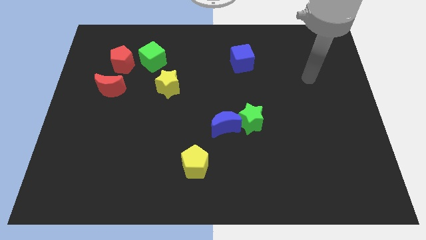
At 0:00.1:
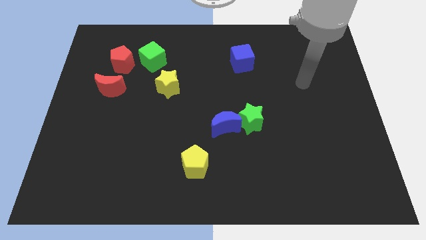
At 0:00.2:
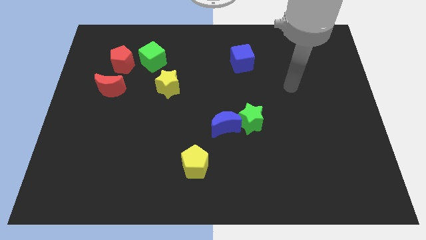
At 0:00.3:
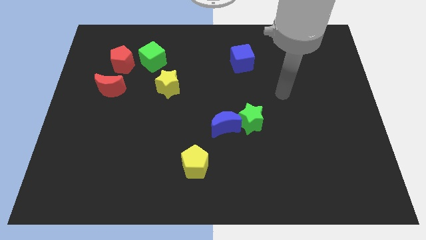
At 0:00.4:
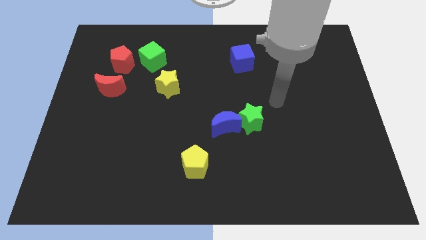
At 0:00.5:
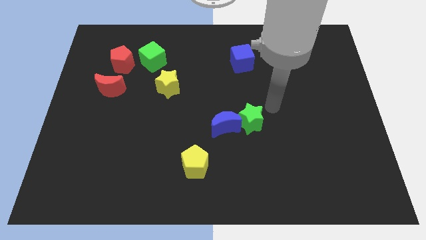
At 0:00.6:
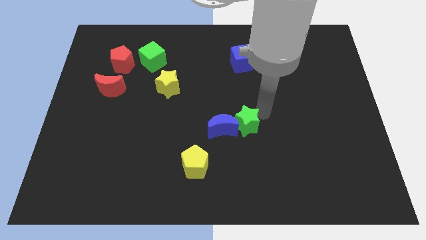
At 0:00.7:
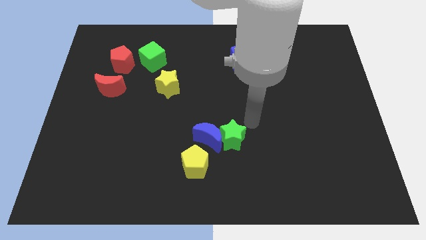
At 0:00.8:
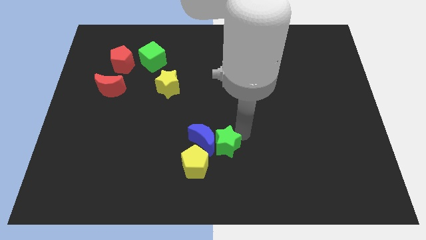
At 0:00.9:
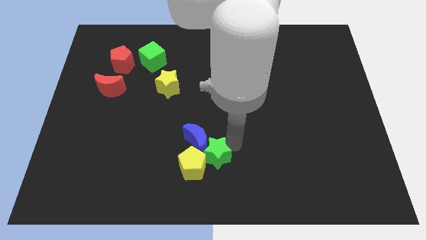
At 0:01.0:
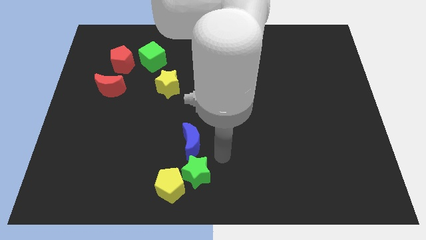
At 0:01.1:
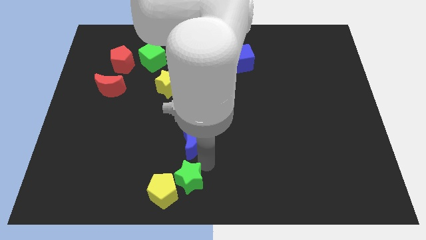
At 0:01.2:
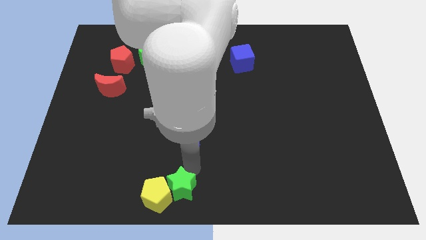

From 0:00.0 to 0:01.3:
separate the blue moon from the green star

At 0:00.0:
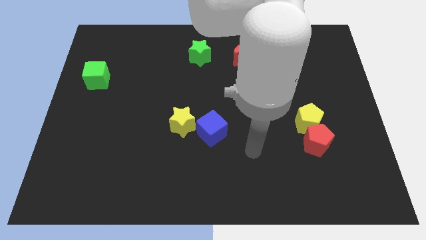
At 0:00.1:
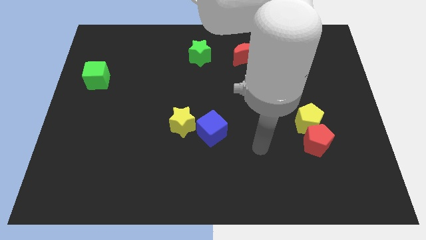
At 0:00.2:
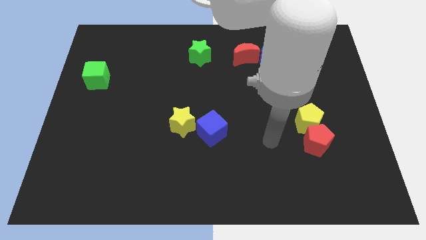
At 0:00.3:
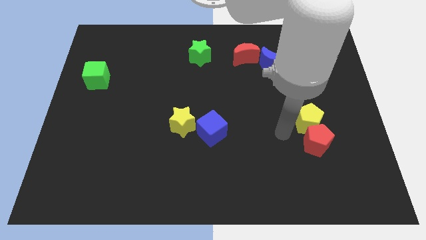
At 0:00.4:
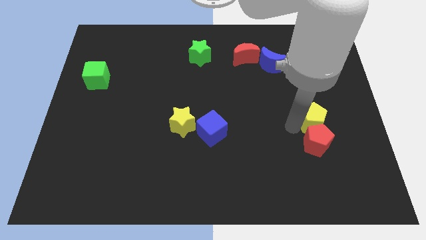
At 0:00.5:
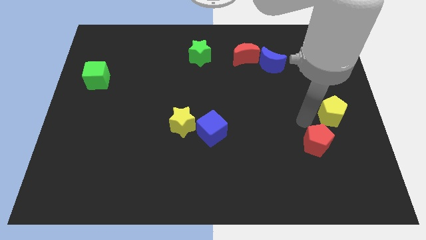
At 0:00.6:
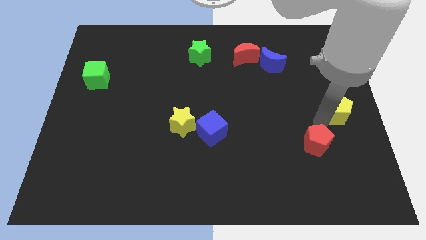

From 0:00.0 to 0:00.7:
move the red pentagon away from the yellow pentagon

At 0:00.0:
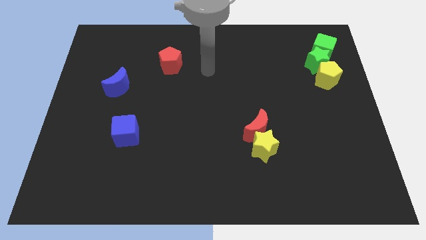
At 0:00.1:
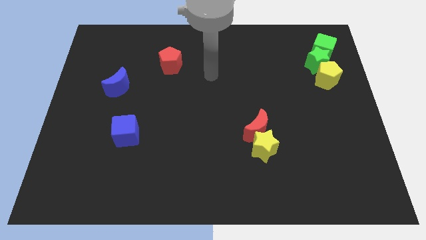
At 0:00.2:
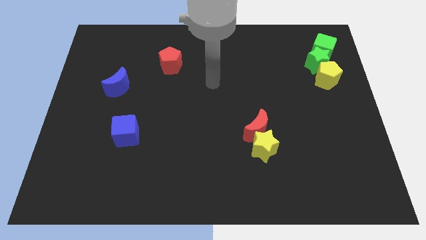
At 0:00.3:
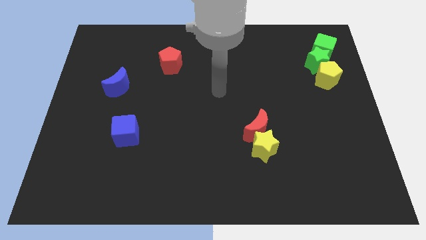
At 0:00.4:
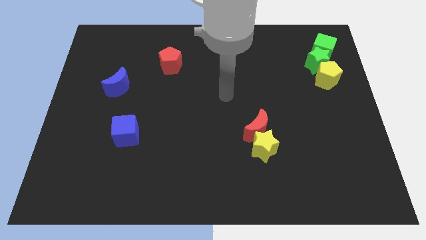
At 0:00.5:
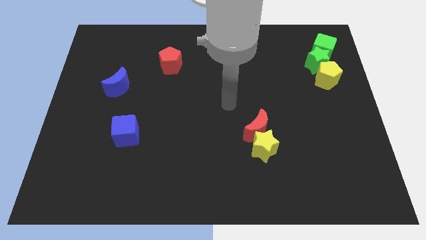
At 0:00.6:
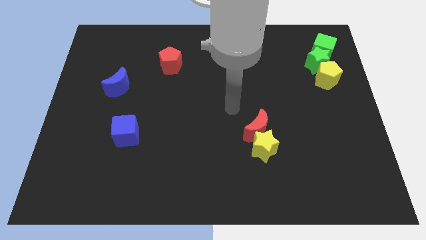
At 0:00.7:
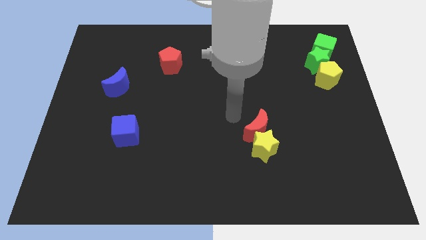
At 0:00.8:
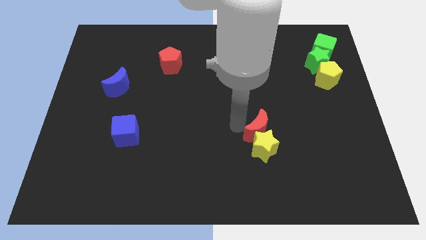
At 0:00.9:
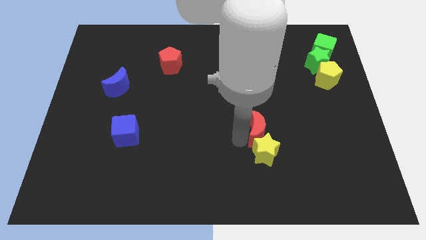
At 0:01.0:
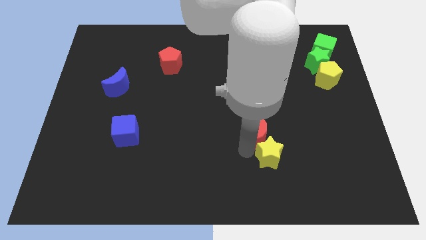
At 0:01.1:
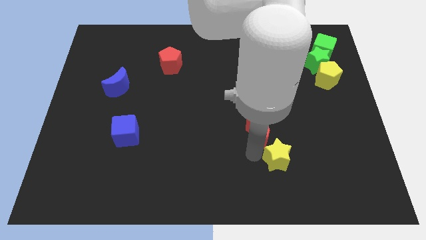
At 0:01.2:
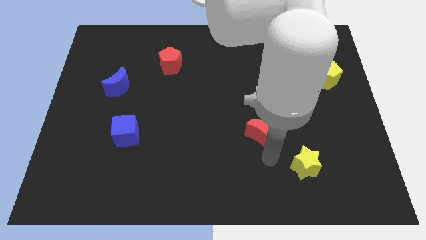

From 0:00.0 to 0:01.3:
move the red moon away from the yellow star

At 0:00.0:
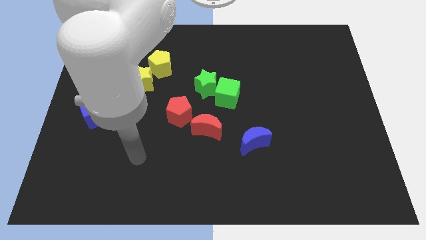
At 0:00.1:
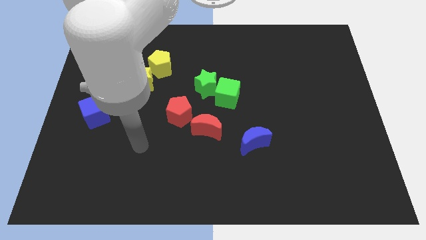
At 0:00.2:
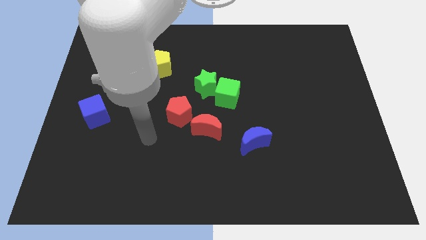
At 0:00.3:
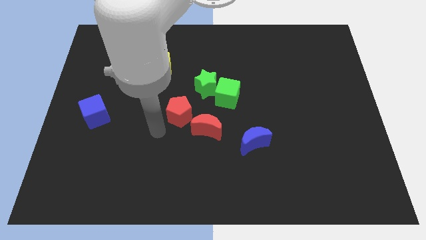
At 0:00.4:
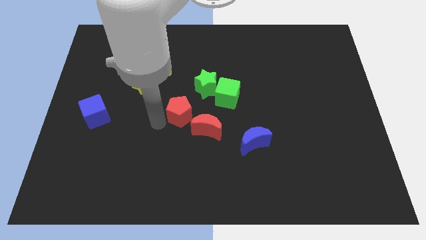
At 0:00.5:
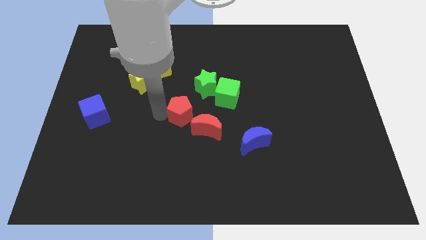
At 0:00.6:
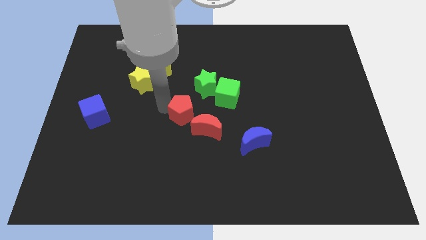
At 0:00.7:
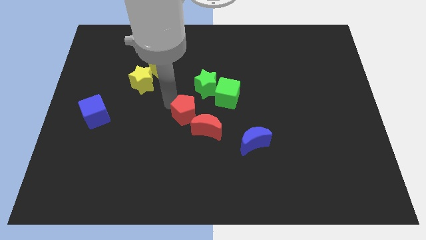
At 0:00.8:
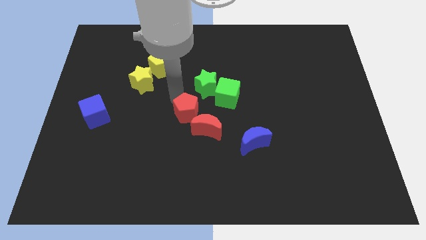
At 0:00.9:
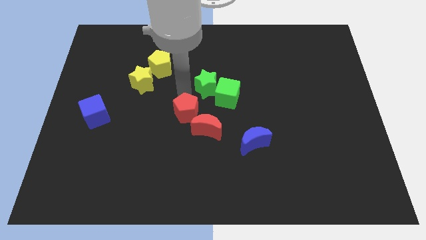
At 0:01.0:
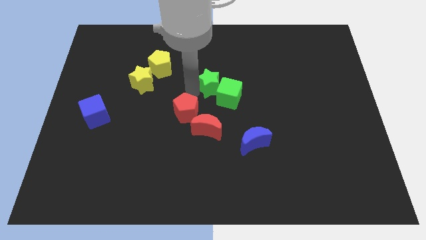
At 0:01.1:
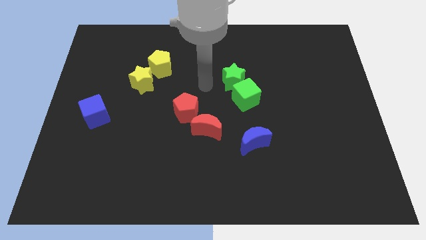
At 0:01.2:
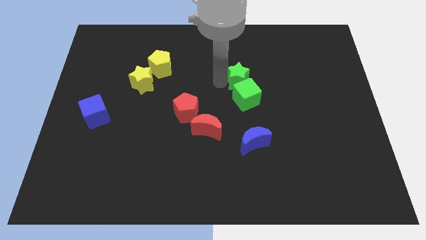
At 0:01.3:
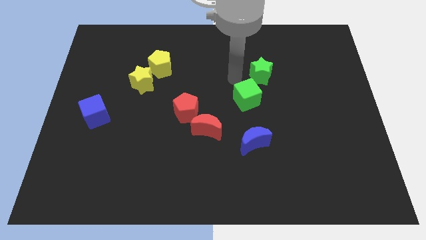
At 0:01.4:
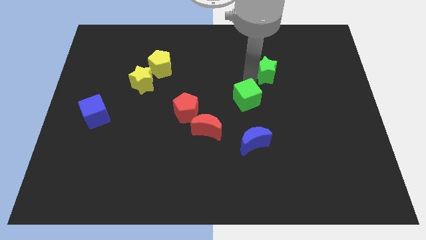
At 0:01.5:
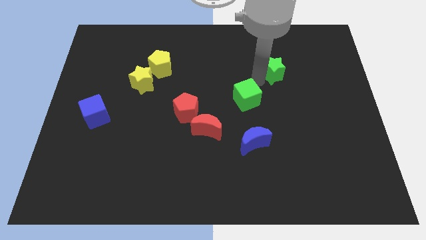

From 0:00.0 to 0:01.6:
move the green cube away from the green star

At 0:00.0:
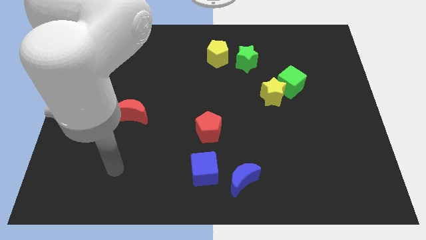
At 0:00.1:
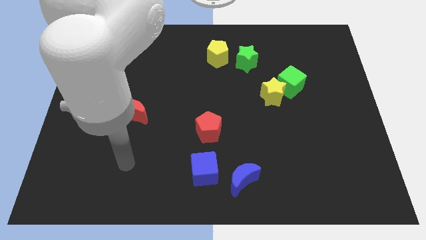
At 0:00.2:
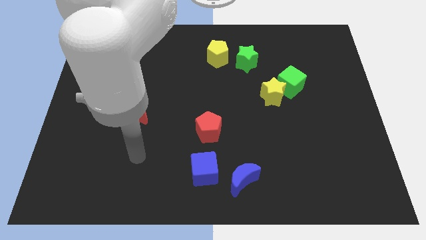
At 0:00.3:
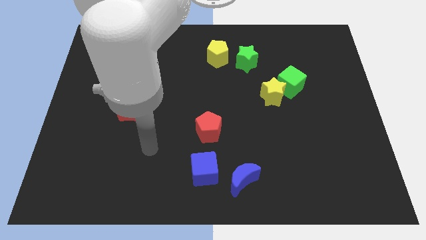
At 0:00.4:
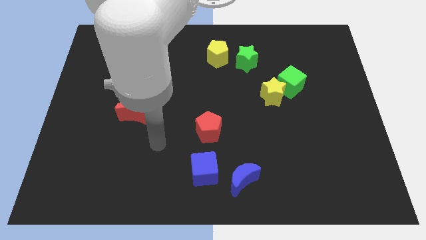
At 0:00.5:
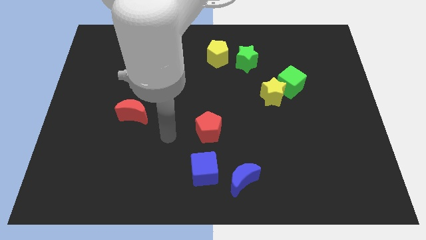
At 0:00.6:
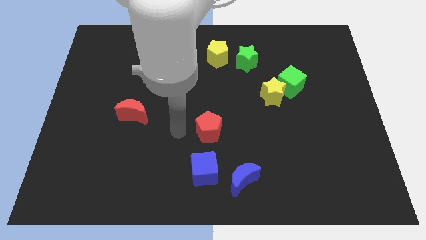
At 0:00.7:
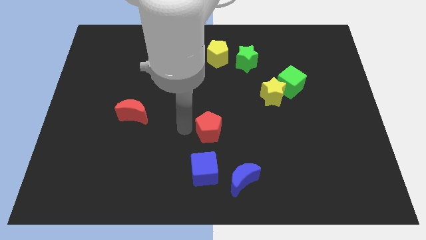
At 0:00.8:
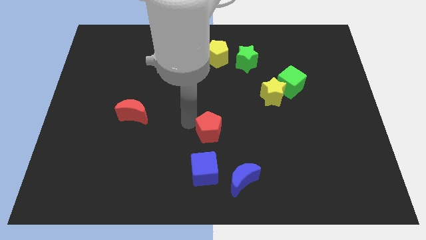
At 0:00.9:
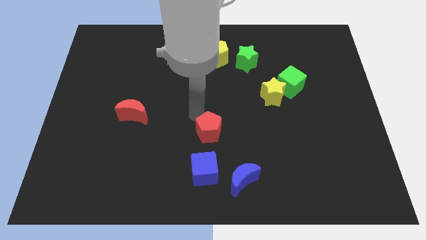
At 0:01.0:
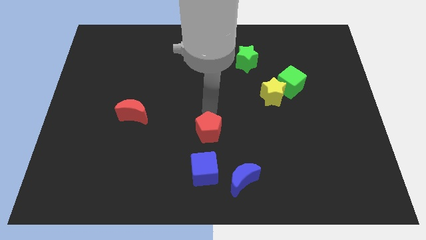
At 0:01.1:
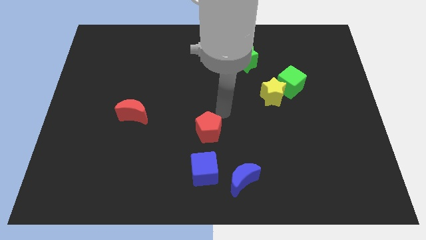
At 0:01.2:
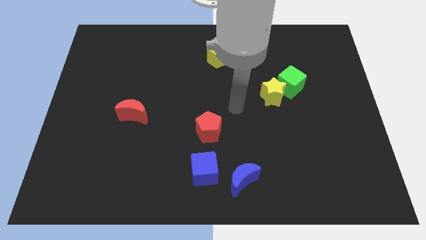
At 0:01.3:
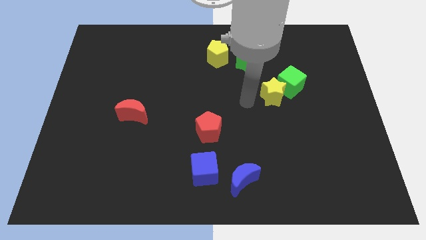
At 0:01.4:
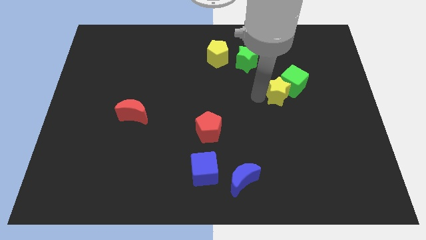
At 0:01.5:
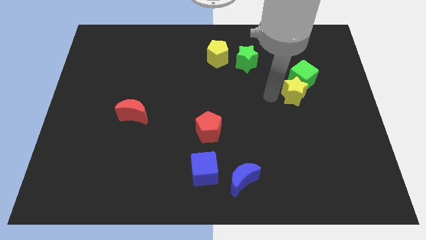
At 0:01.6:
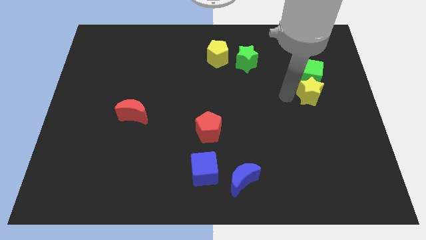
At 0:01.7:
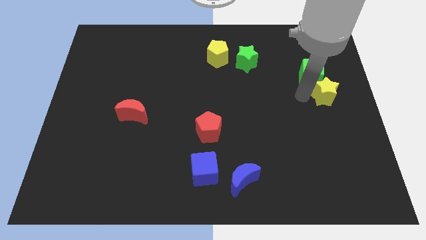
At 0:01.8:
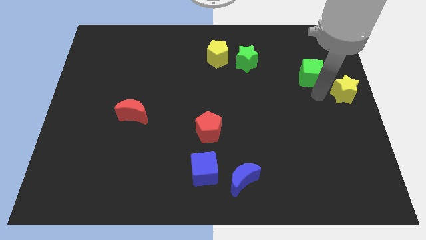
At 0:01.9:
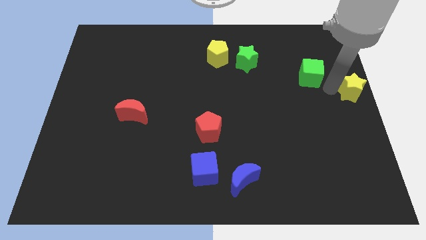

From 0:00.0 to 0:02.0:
pull the green cube apart from the yellow star

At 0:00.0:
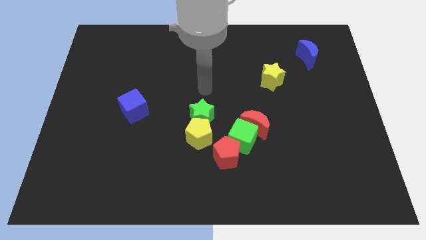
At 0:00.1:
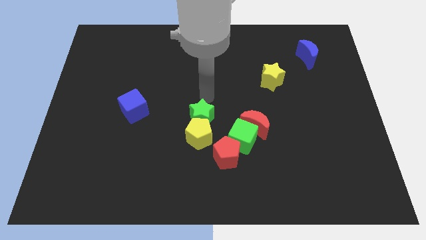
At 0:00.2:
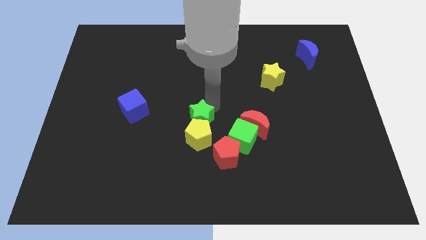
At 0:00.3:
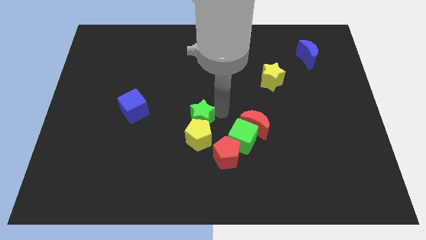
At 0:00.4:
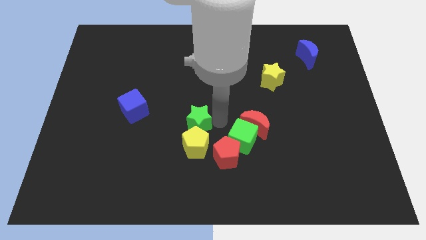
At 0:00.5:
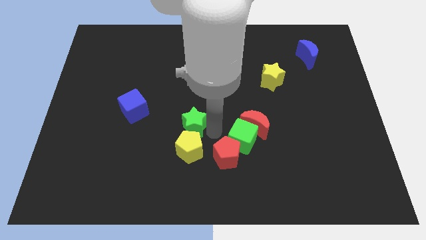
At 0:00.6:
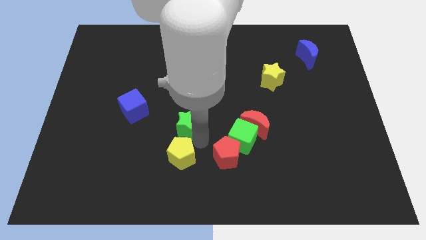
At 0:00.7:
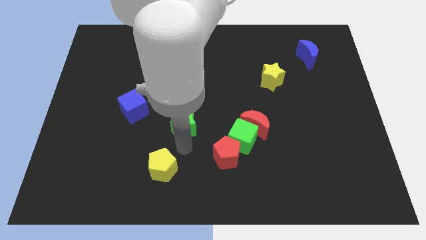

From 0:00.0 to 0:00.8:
pull the green star apart from the yellow pentagon

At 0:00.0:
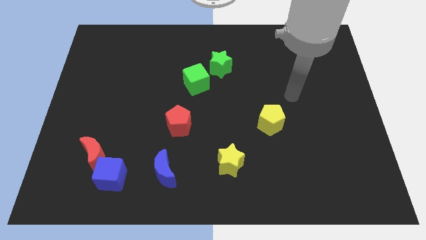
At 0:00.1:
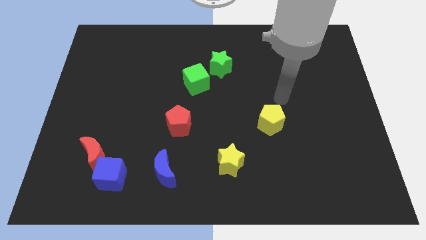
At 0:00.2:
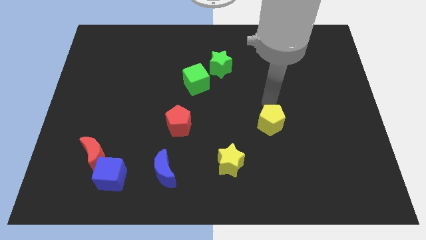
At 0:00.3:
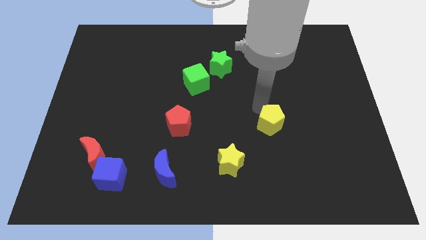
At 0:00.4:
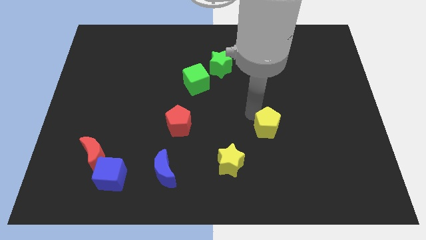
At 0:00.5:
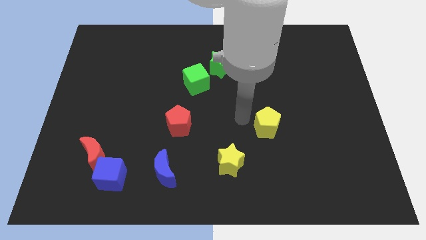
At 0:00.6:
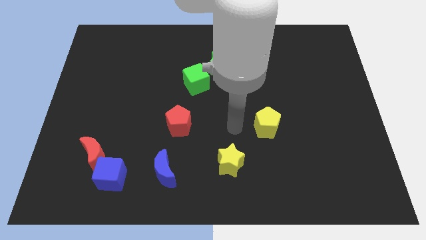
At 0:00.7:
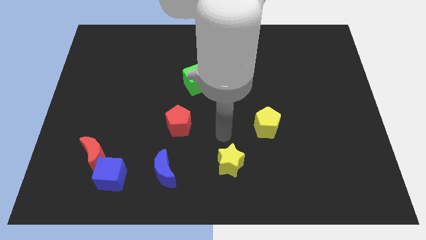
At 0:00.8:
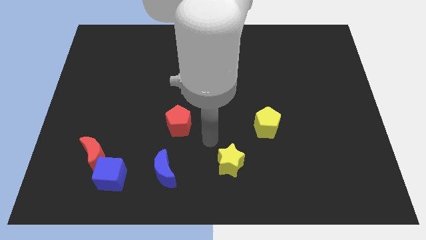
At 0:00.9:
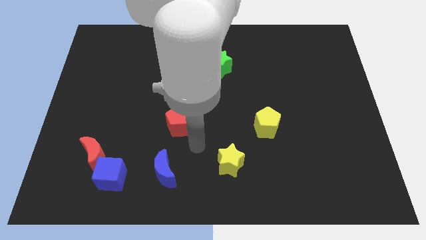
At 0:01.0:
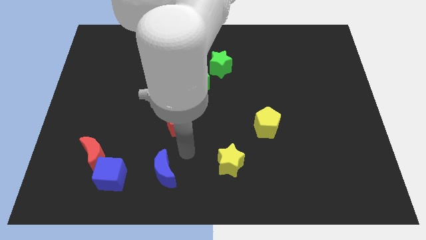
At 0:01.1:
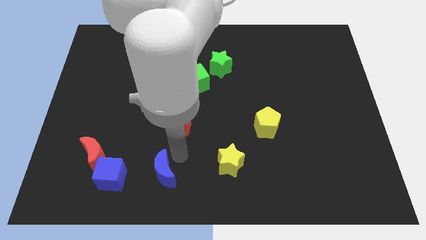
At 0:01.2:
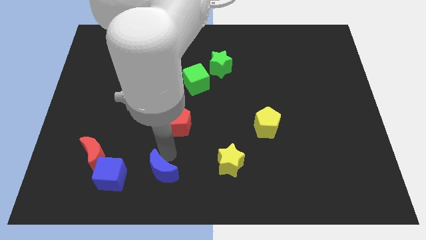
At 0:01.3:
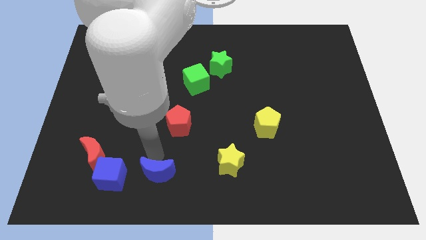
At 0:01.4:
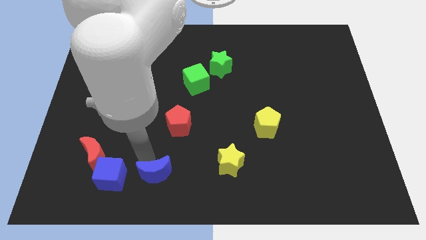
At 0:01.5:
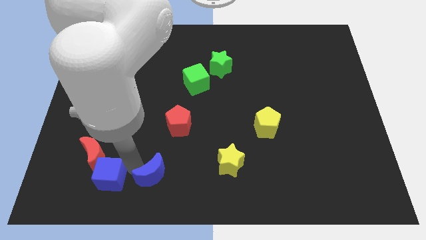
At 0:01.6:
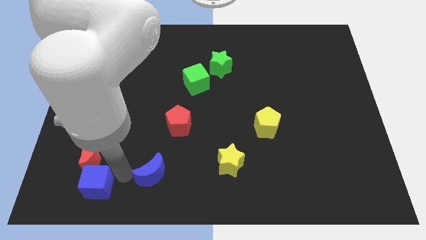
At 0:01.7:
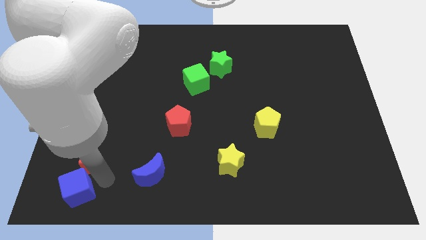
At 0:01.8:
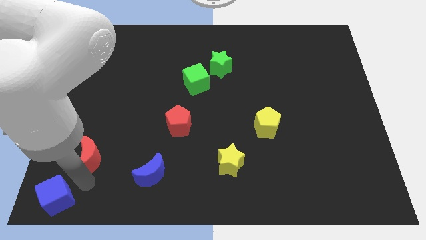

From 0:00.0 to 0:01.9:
move the red moon away from the blue cube
